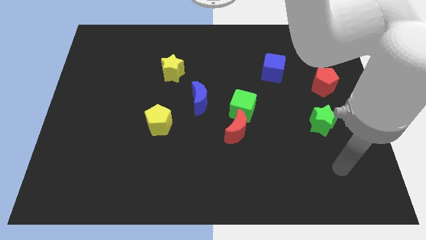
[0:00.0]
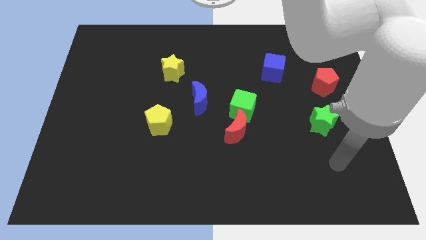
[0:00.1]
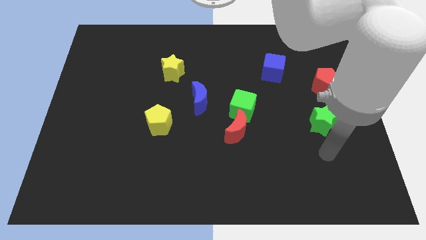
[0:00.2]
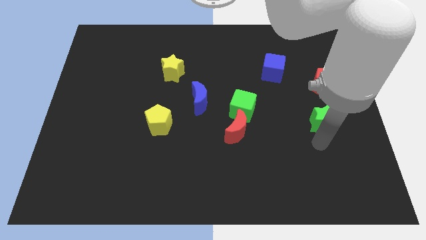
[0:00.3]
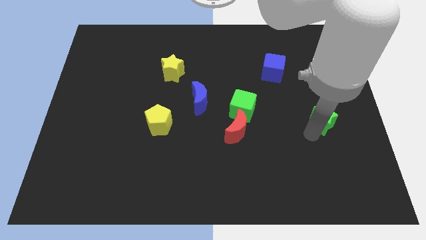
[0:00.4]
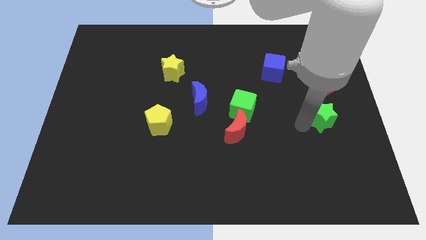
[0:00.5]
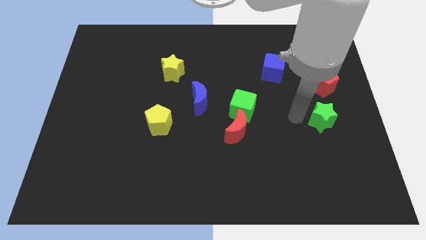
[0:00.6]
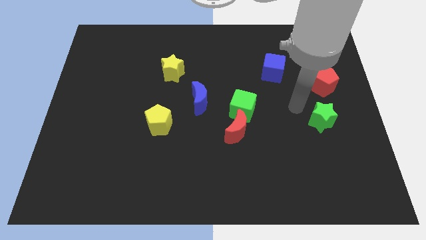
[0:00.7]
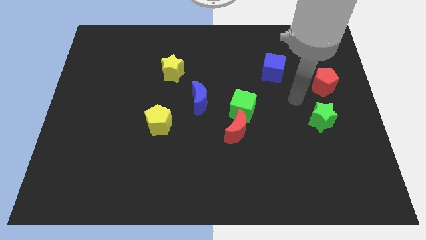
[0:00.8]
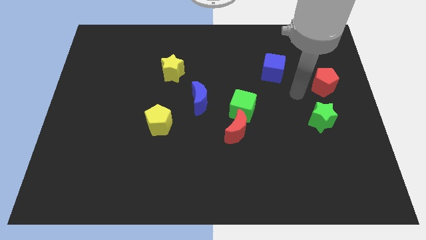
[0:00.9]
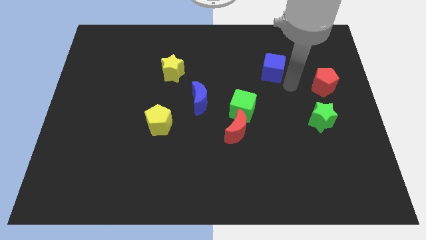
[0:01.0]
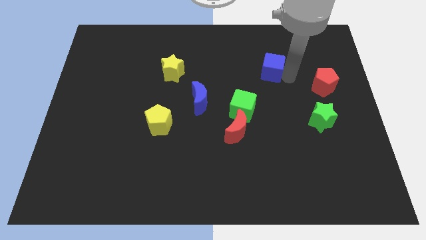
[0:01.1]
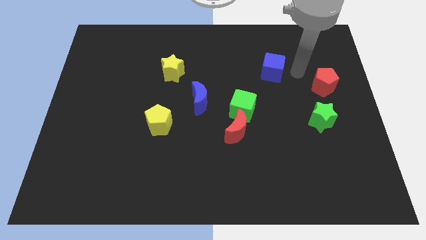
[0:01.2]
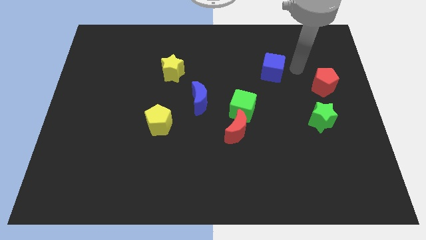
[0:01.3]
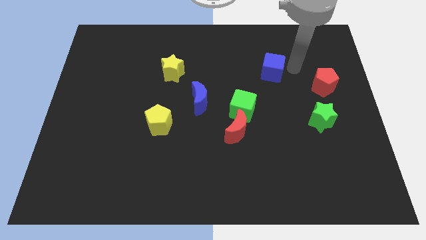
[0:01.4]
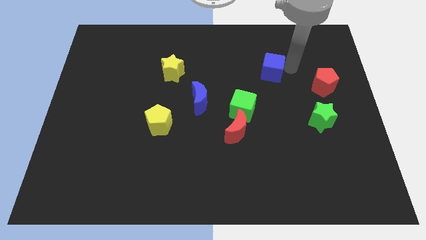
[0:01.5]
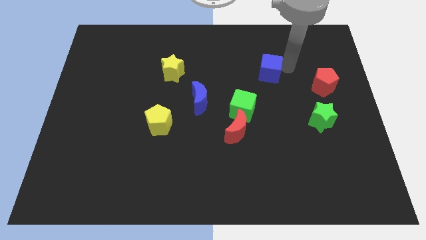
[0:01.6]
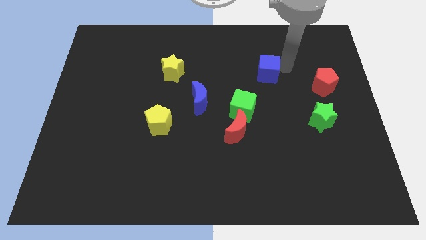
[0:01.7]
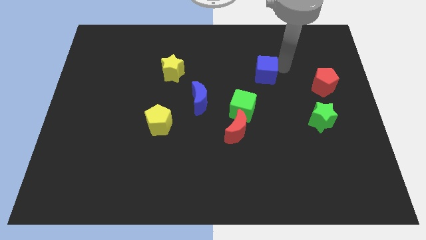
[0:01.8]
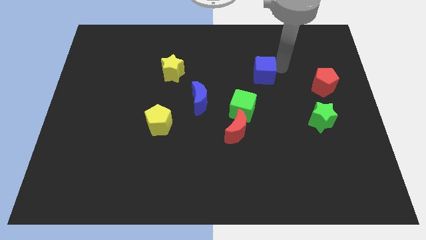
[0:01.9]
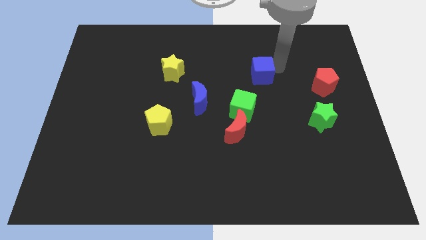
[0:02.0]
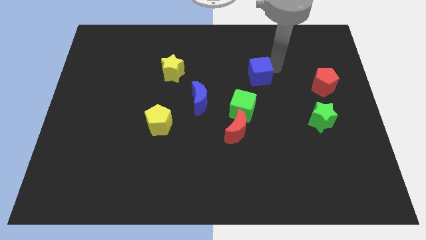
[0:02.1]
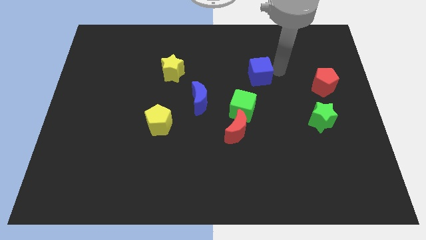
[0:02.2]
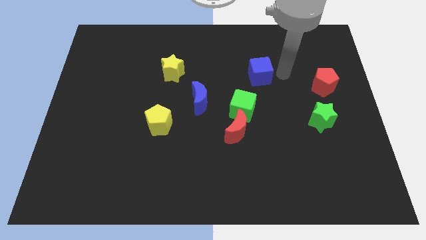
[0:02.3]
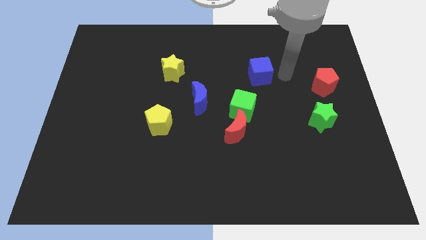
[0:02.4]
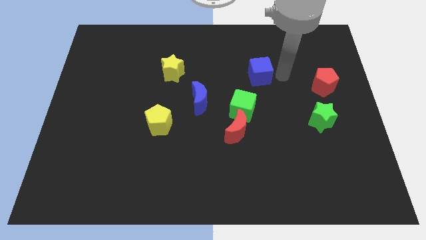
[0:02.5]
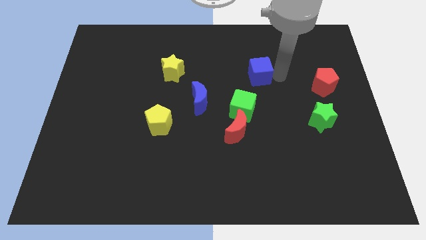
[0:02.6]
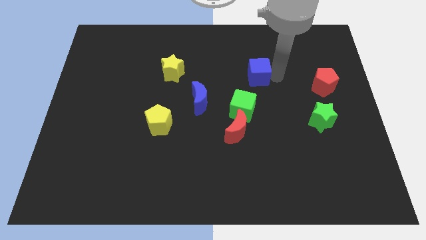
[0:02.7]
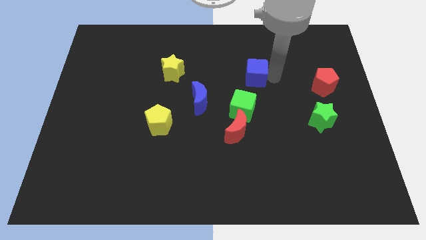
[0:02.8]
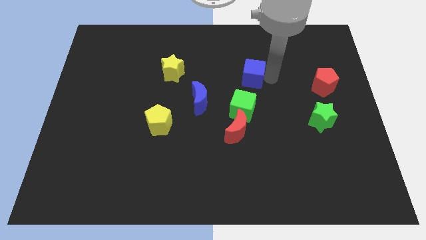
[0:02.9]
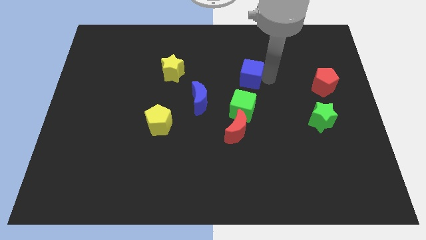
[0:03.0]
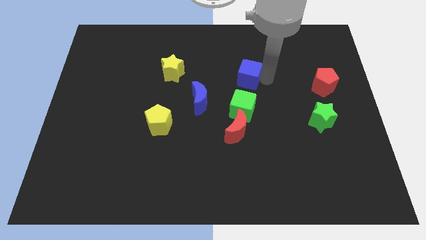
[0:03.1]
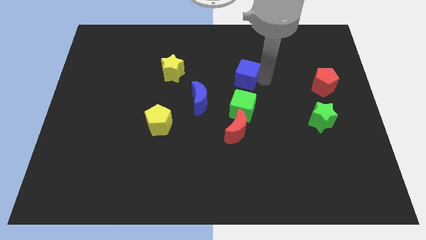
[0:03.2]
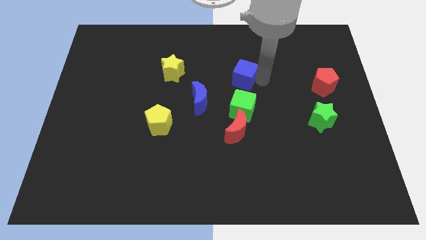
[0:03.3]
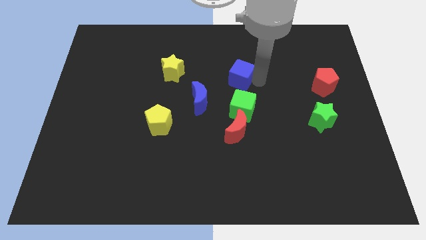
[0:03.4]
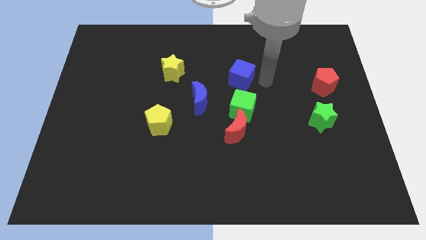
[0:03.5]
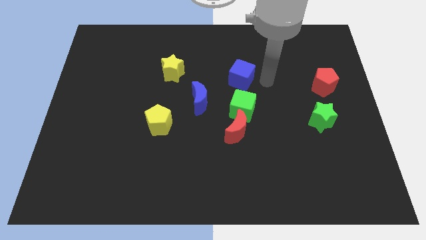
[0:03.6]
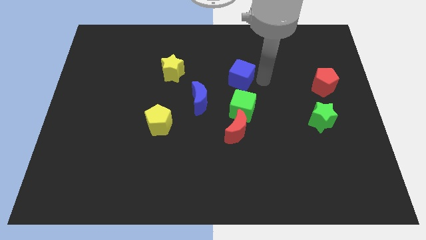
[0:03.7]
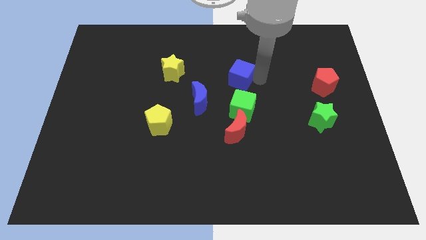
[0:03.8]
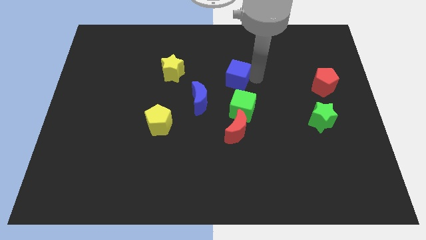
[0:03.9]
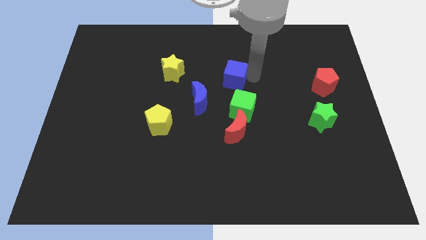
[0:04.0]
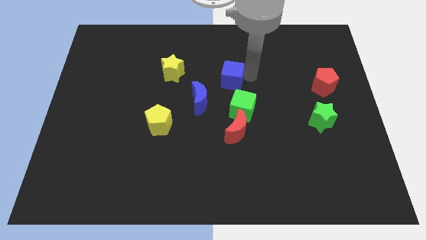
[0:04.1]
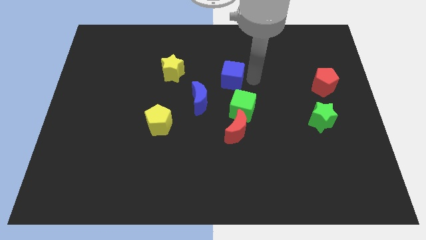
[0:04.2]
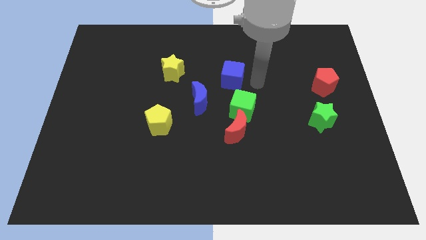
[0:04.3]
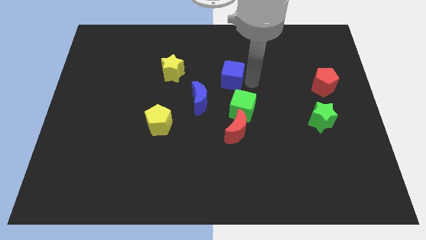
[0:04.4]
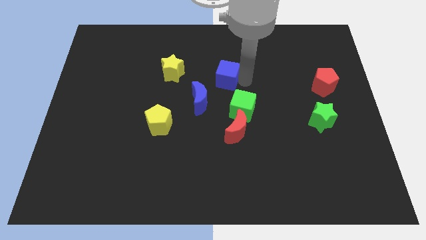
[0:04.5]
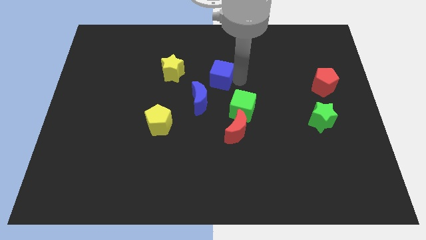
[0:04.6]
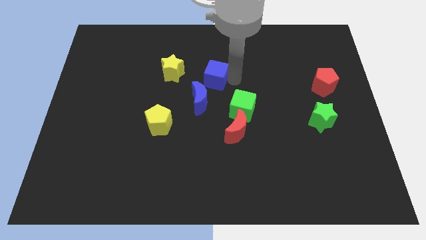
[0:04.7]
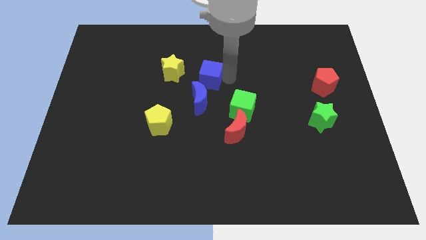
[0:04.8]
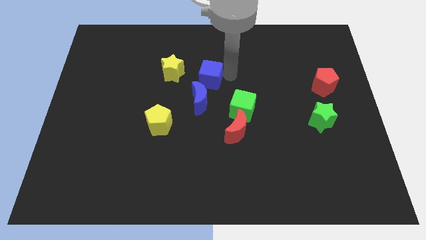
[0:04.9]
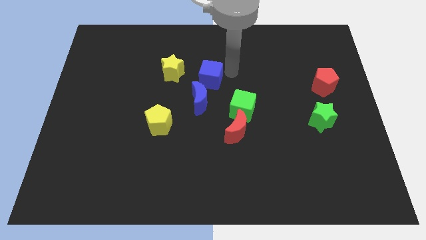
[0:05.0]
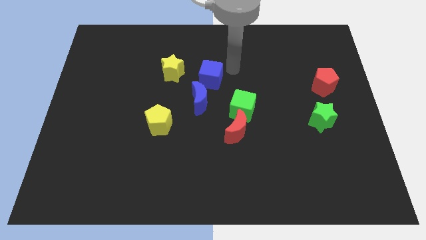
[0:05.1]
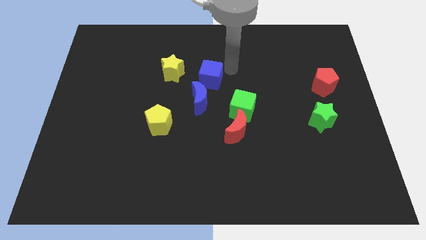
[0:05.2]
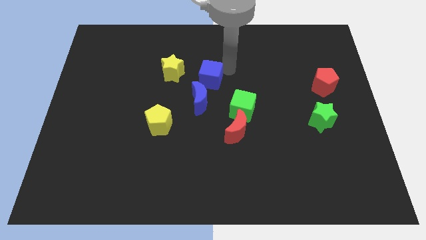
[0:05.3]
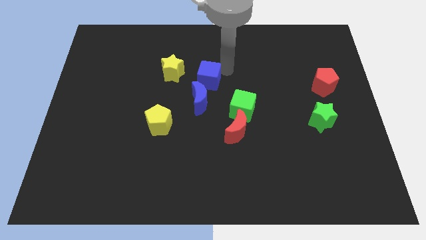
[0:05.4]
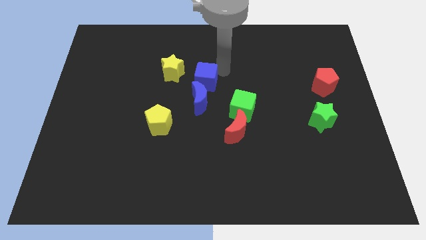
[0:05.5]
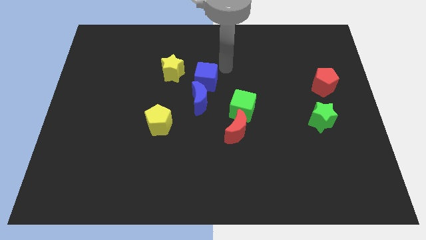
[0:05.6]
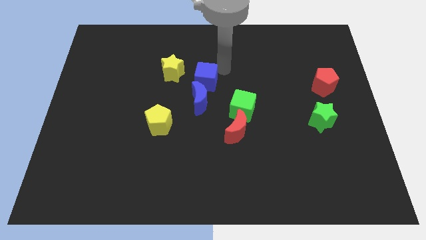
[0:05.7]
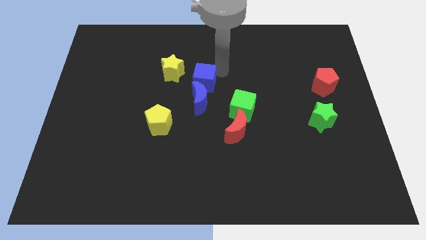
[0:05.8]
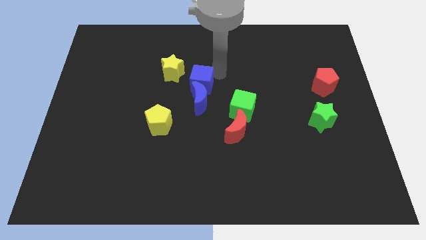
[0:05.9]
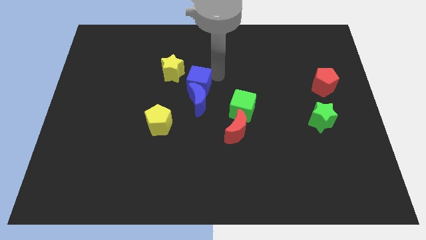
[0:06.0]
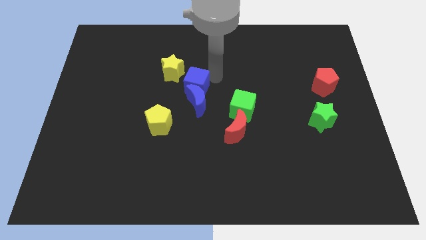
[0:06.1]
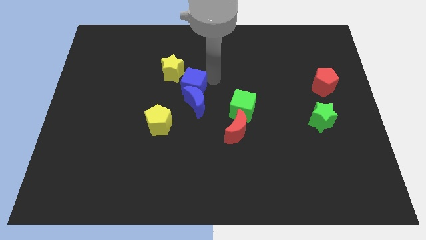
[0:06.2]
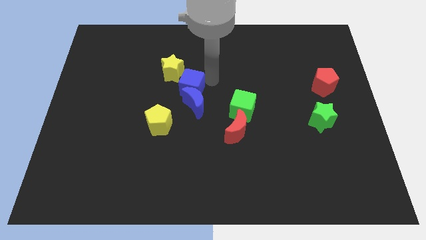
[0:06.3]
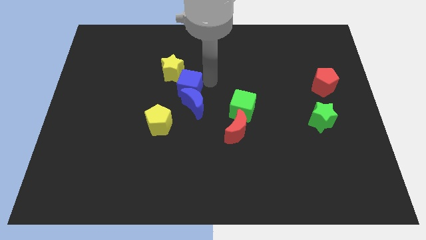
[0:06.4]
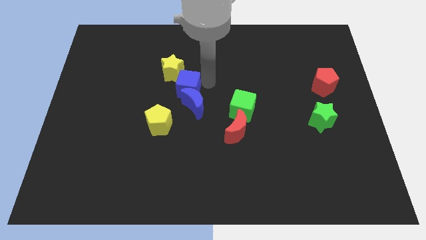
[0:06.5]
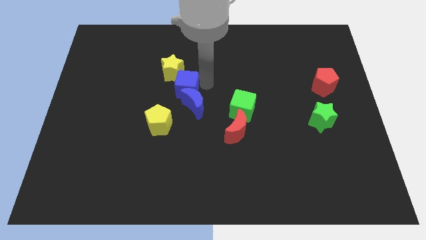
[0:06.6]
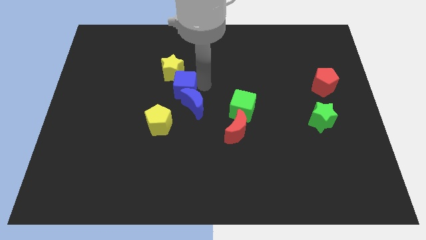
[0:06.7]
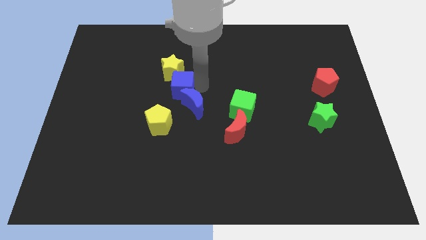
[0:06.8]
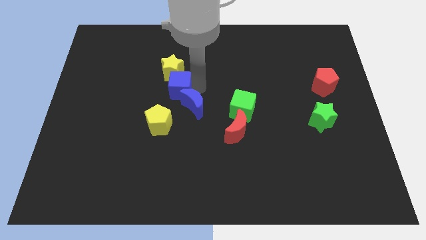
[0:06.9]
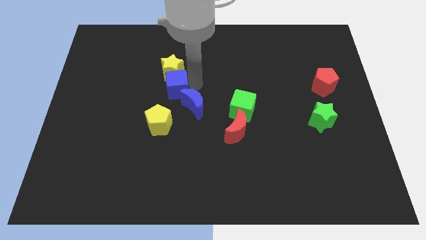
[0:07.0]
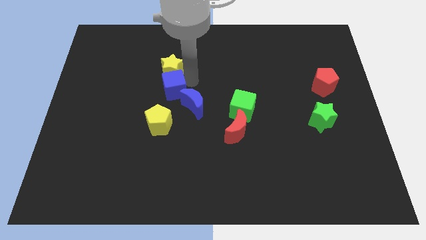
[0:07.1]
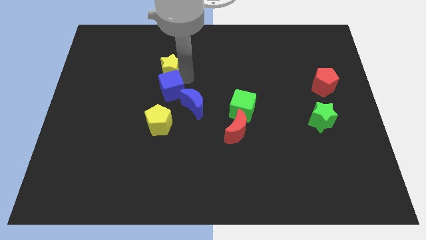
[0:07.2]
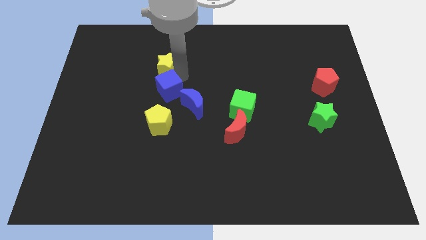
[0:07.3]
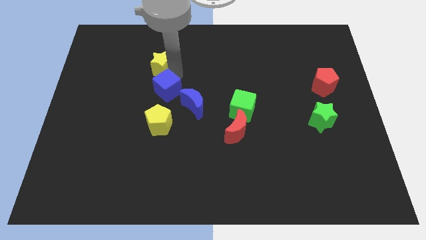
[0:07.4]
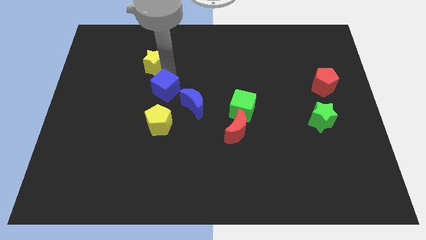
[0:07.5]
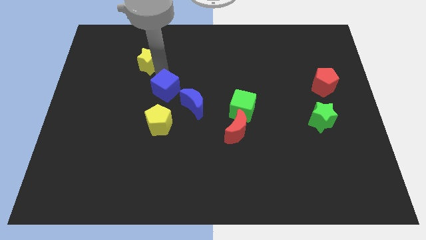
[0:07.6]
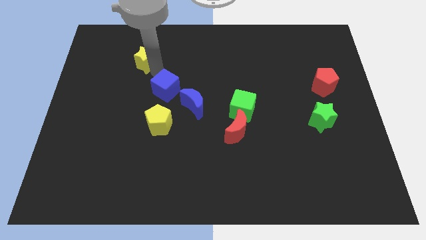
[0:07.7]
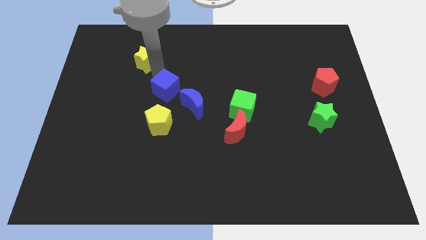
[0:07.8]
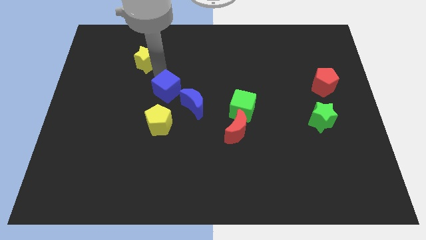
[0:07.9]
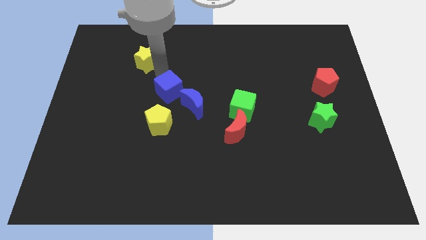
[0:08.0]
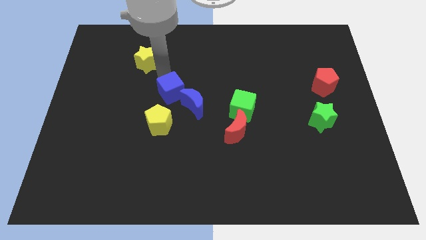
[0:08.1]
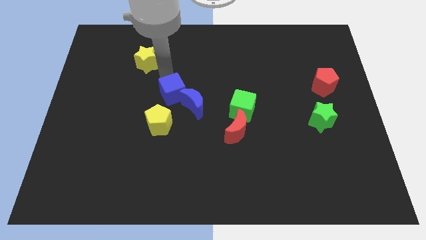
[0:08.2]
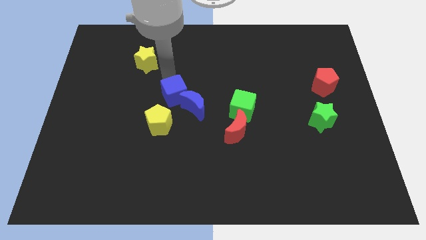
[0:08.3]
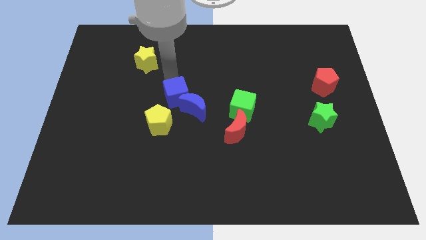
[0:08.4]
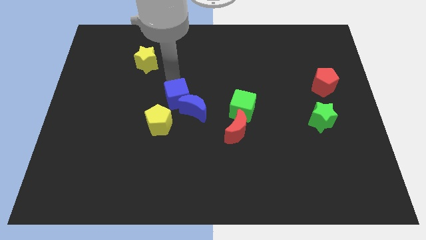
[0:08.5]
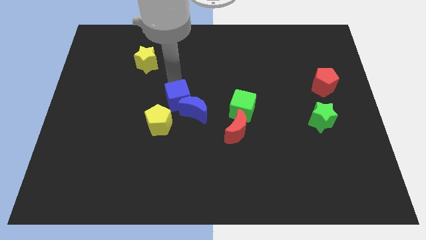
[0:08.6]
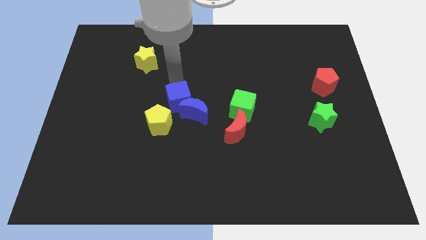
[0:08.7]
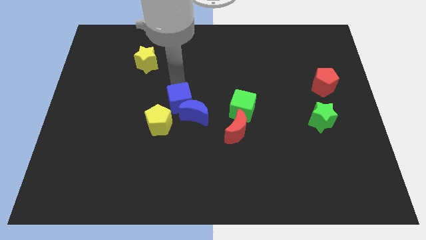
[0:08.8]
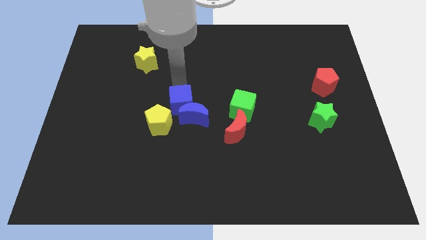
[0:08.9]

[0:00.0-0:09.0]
move the blue cube diagonally down and to the left
